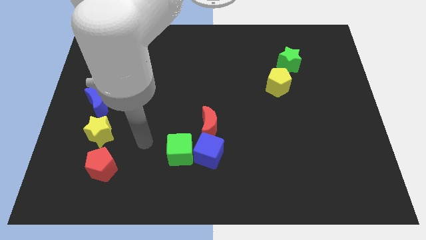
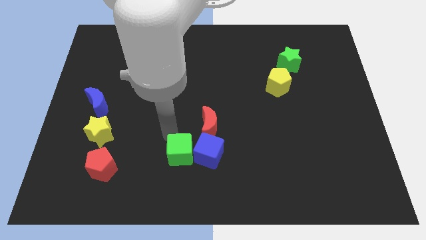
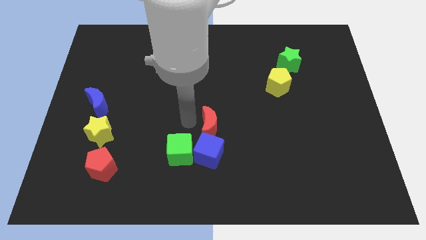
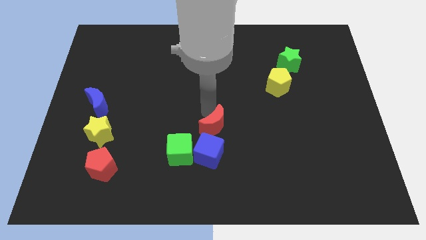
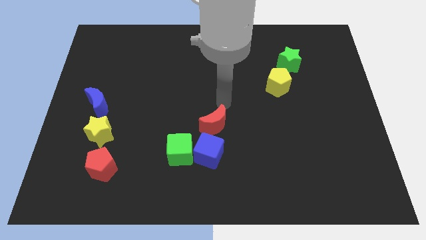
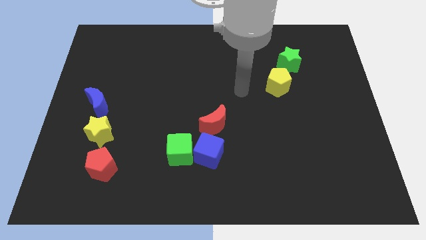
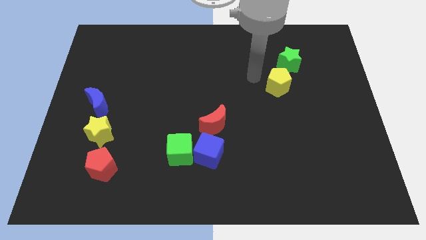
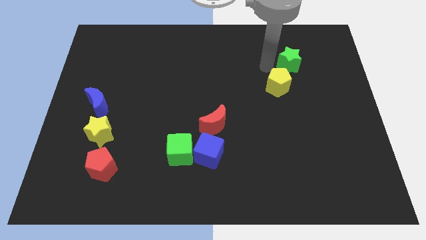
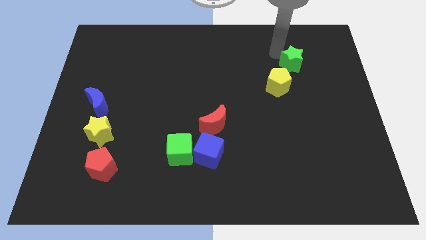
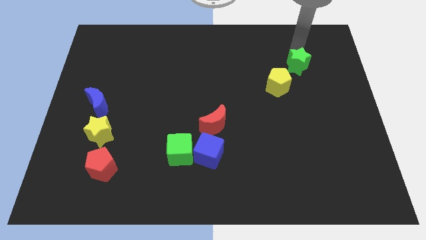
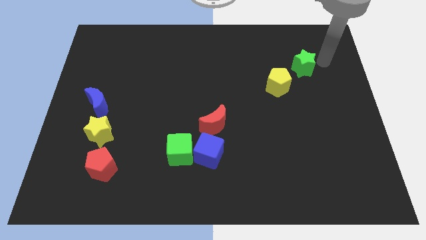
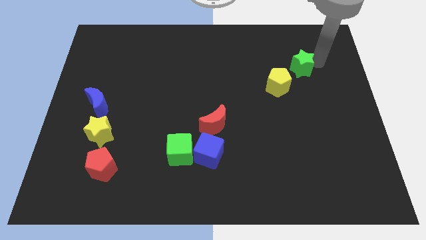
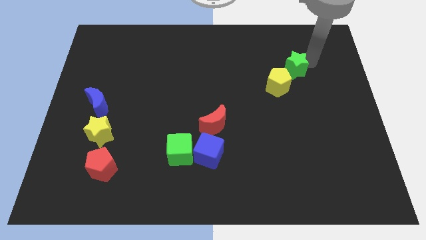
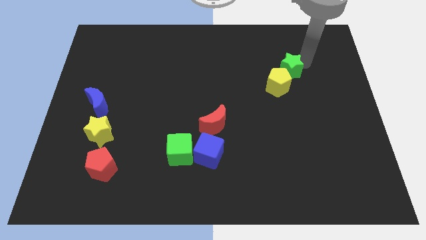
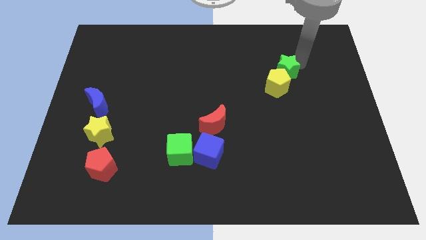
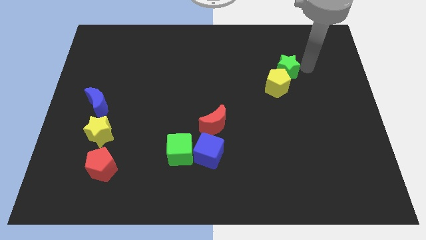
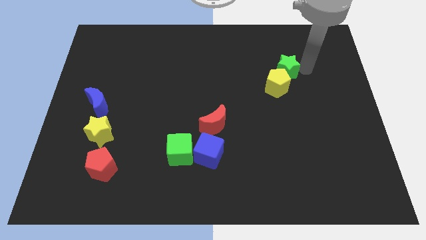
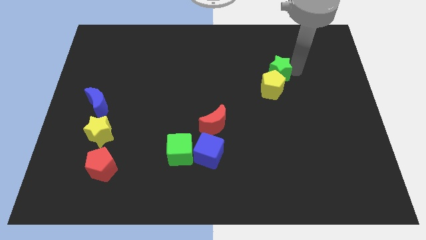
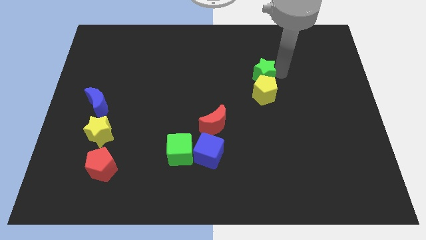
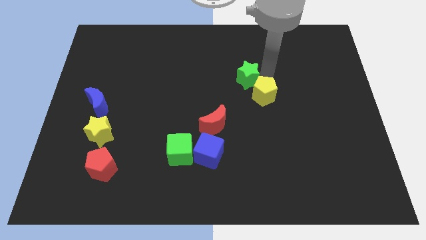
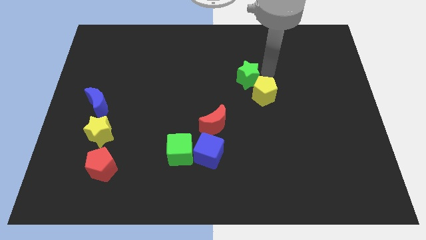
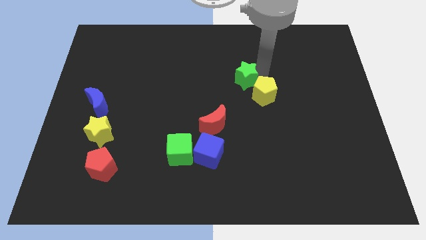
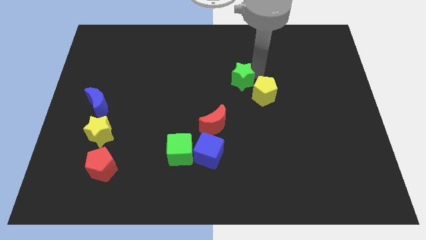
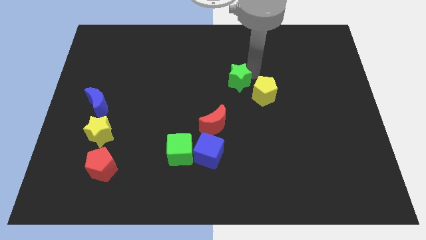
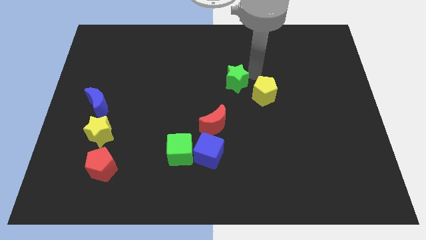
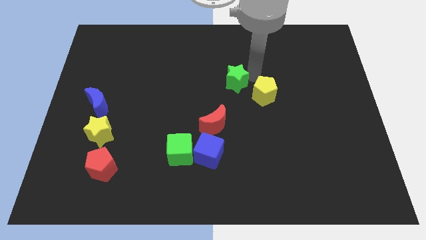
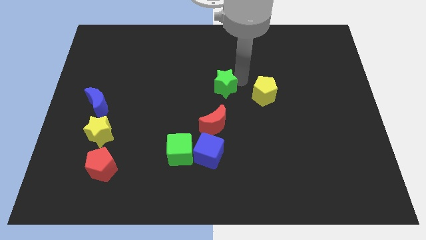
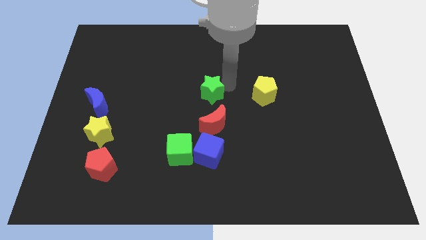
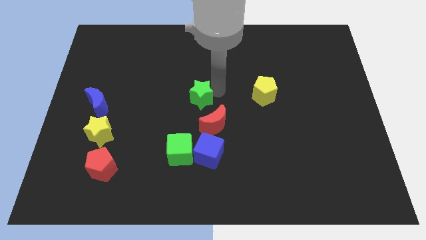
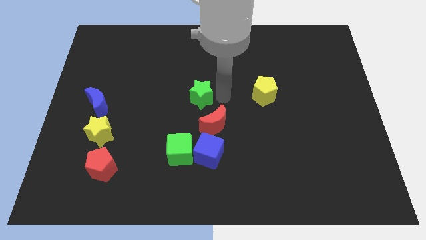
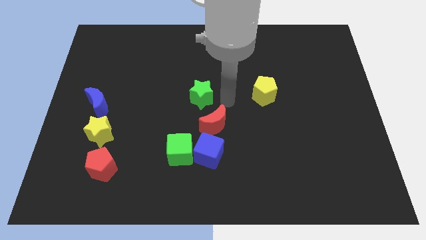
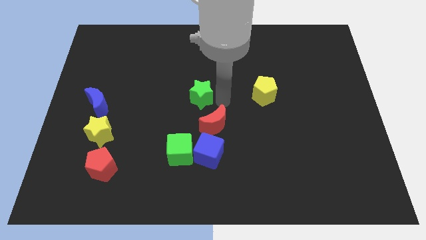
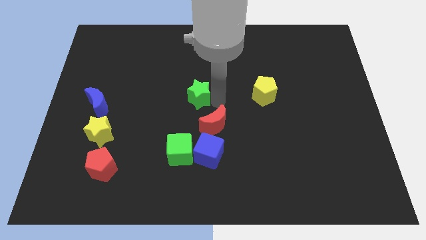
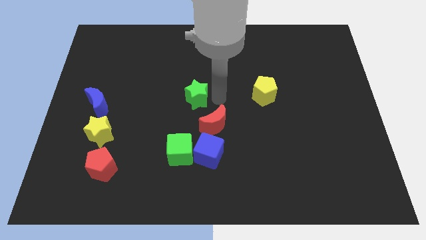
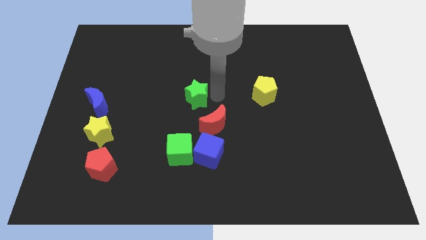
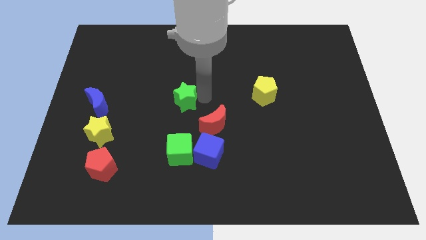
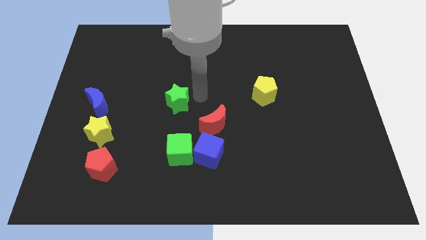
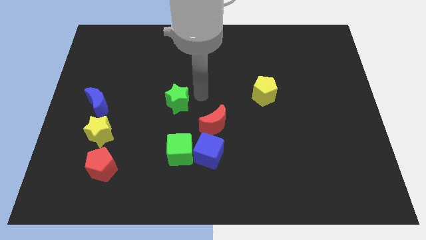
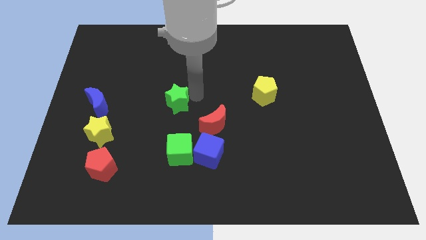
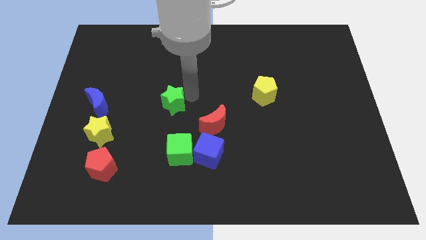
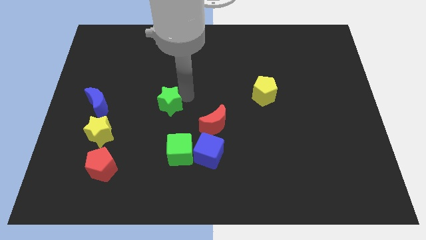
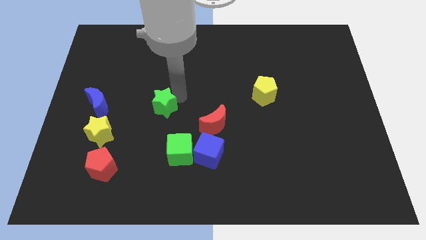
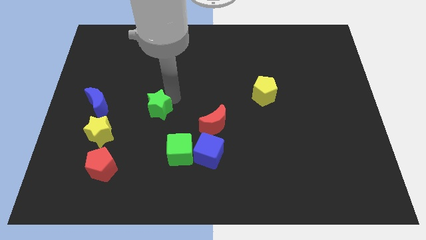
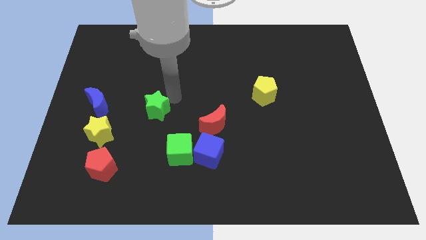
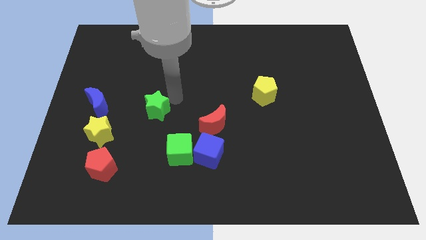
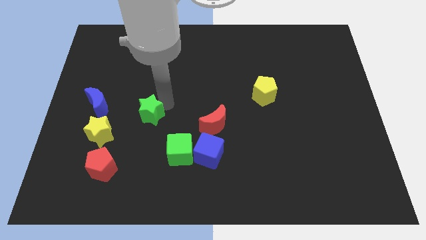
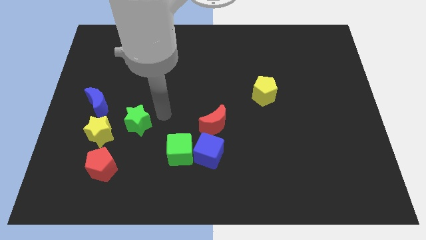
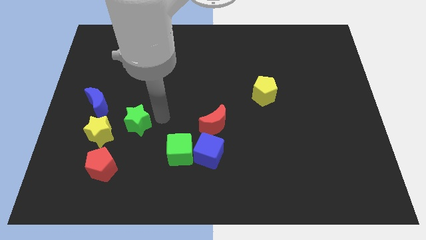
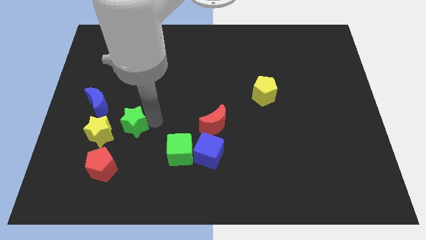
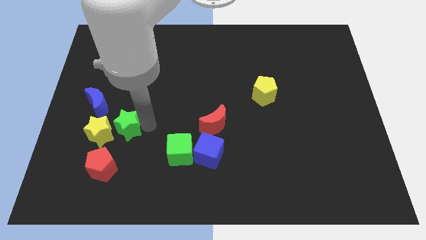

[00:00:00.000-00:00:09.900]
push the green star next to the yellow star

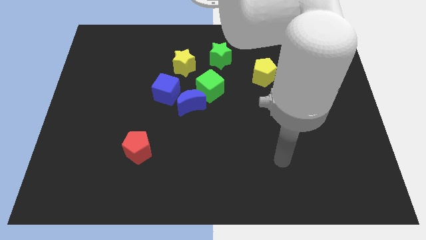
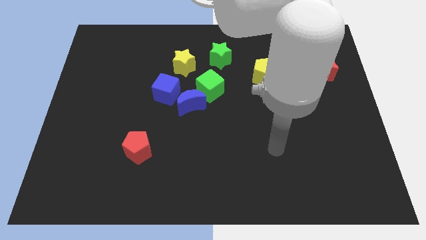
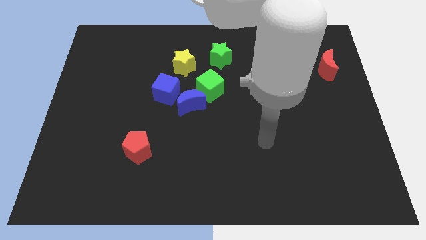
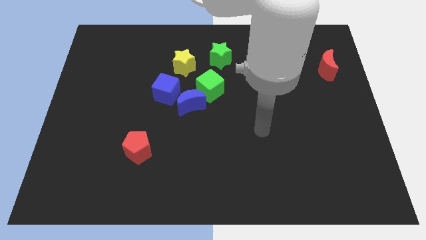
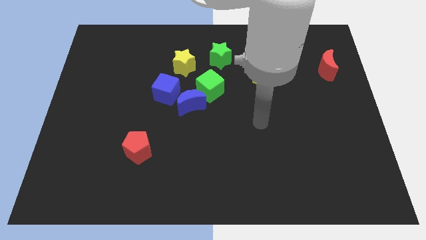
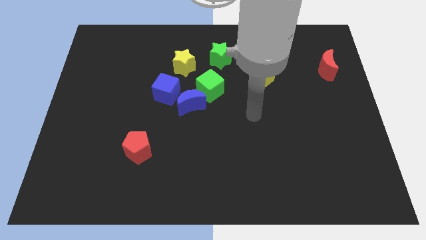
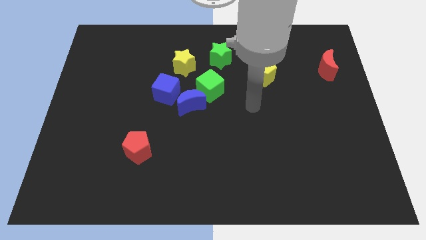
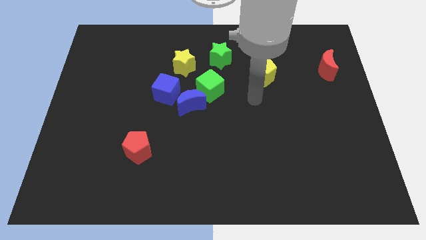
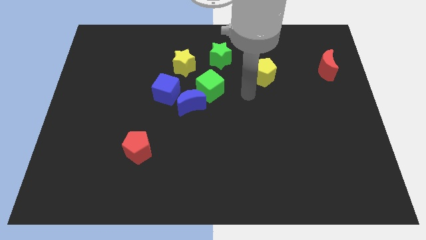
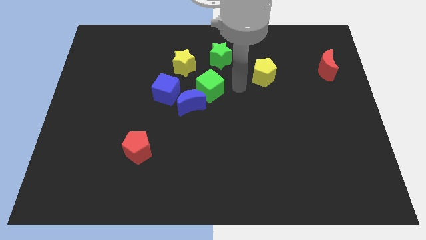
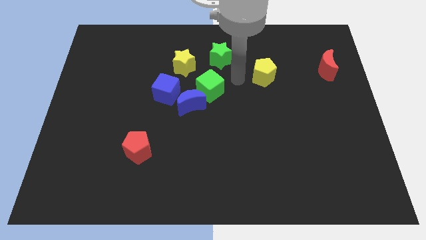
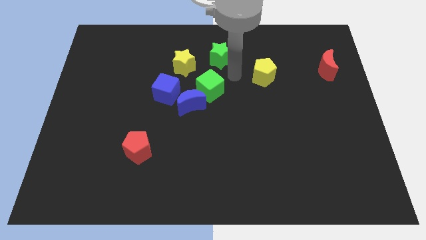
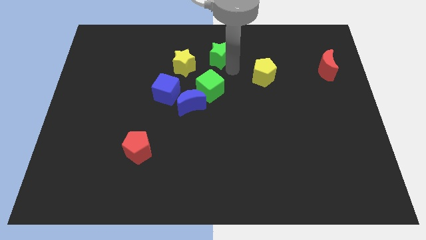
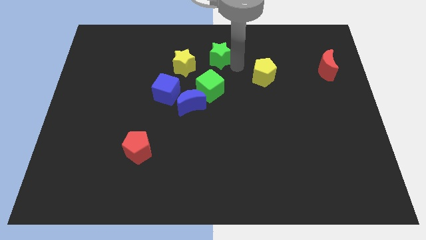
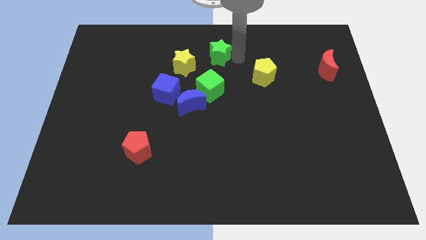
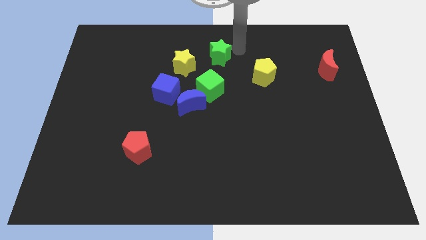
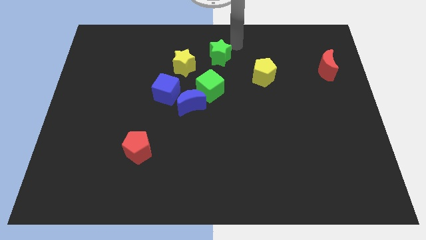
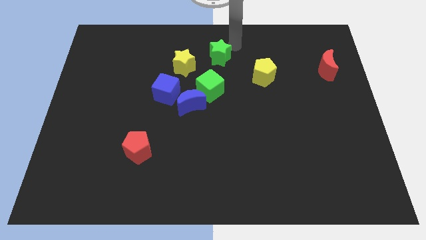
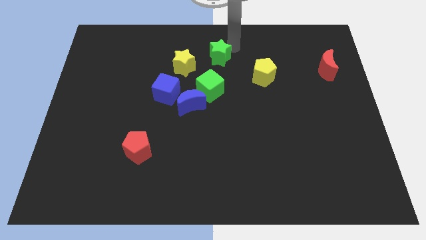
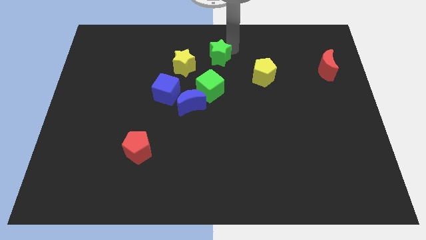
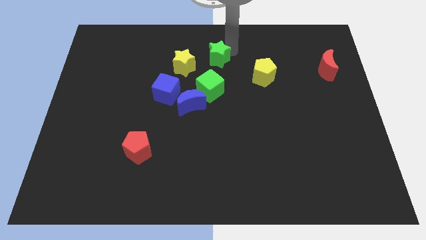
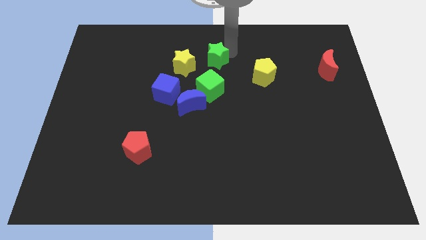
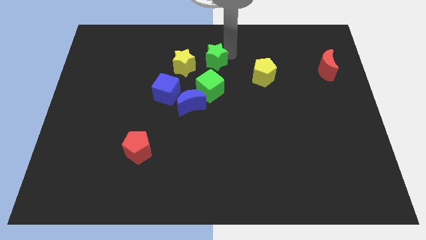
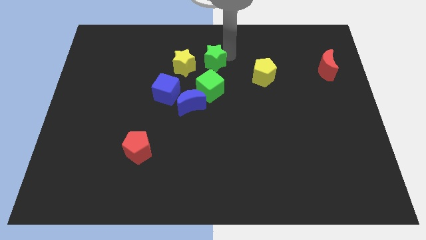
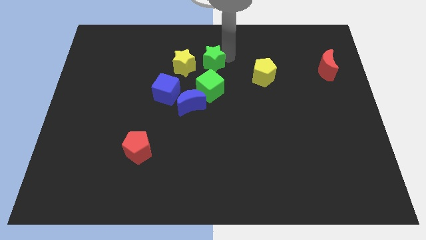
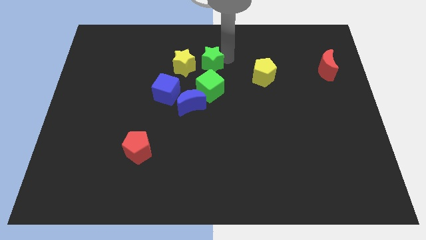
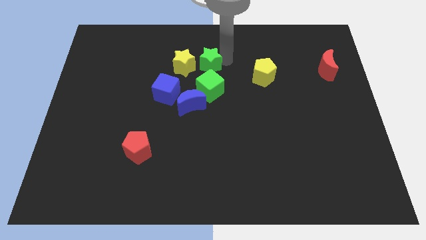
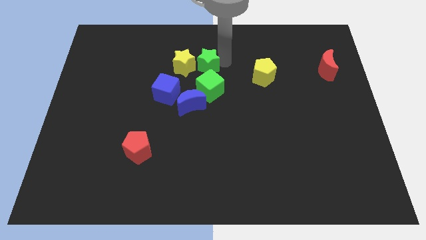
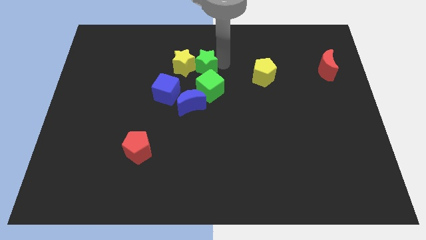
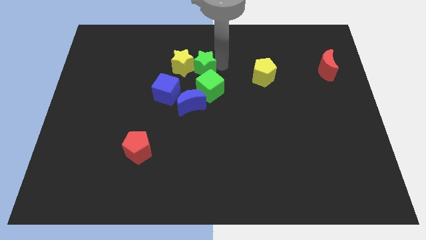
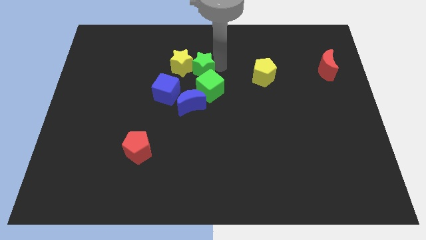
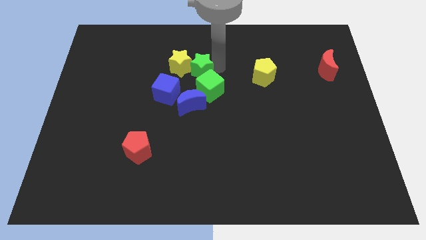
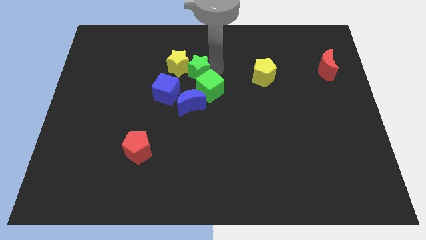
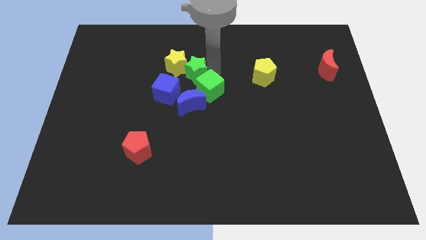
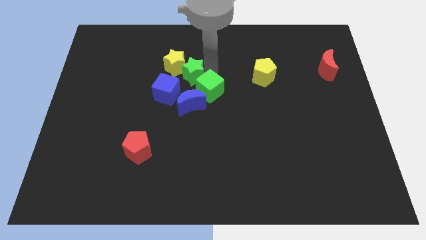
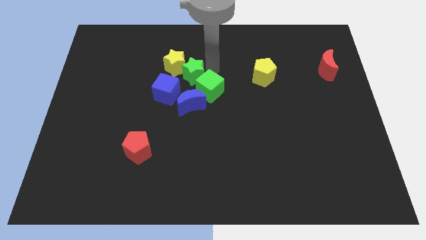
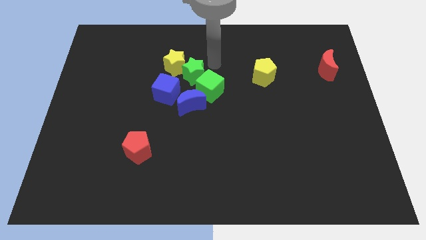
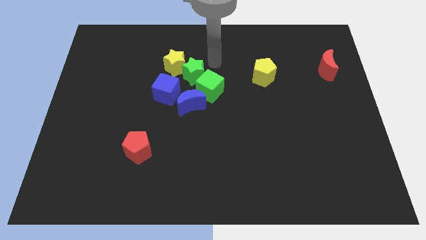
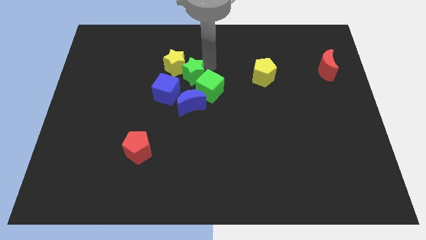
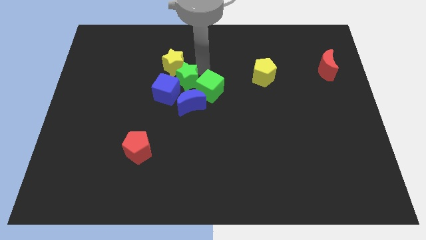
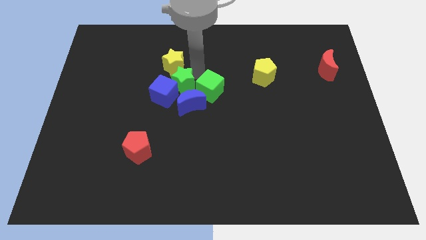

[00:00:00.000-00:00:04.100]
move the green star close to the blue cube
